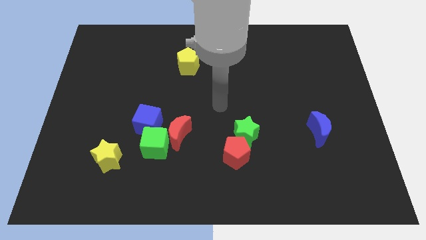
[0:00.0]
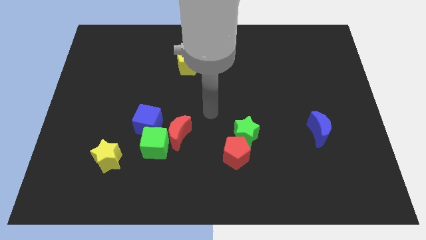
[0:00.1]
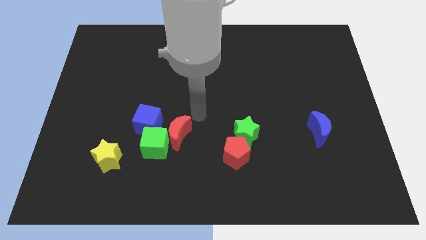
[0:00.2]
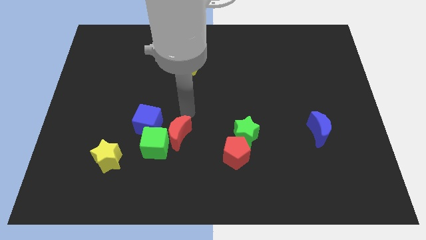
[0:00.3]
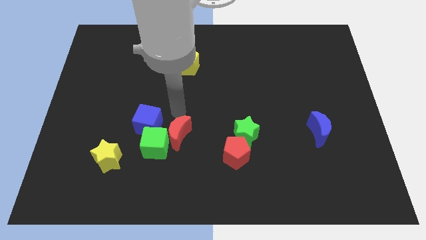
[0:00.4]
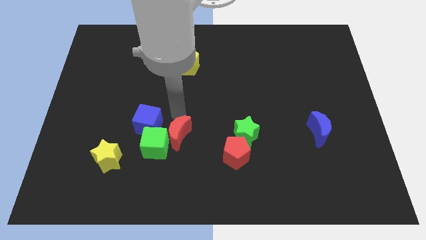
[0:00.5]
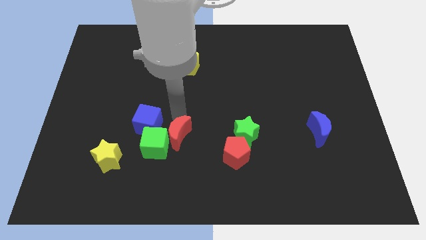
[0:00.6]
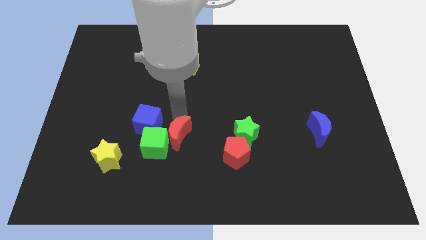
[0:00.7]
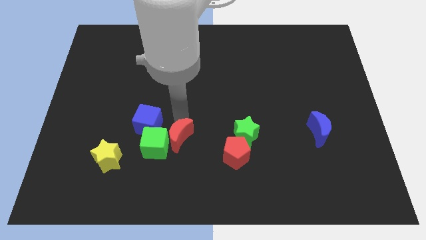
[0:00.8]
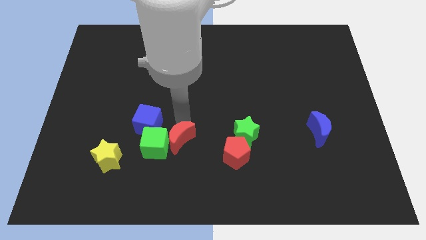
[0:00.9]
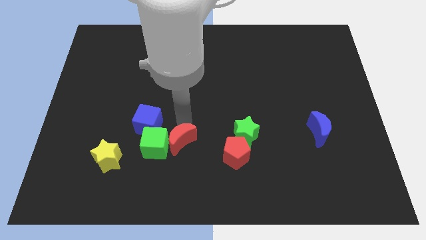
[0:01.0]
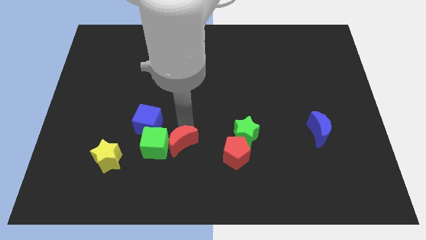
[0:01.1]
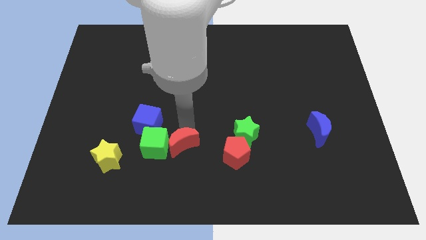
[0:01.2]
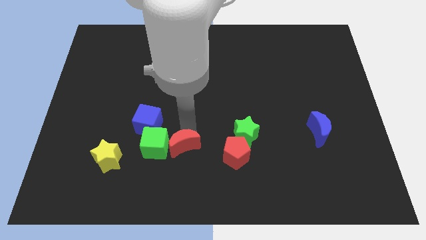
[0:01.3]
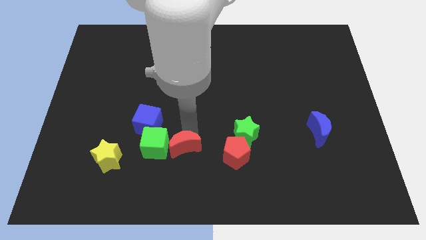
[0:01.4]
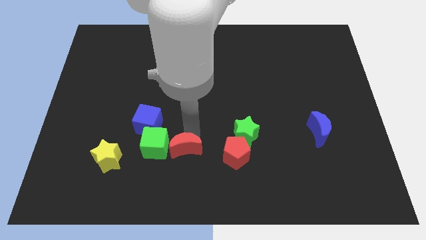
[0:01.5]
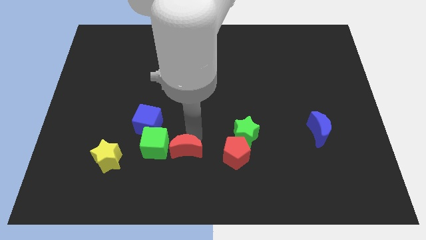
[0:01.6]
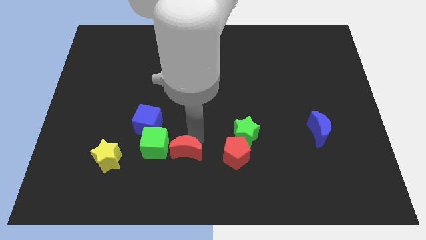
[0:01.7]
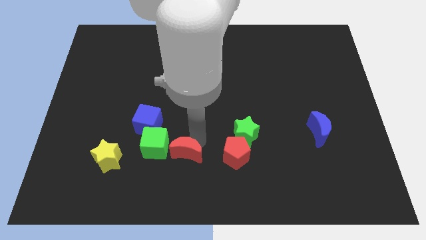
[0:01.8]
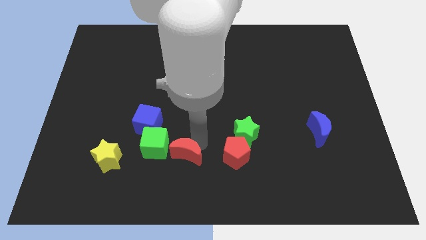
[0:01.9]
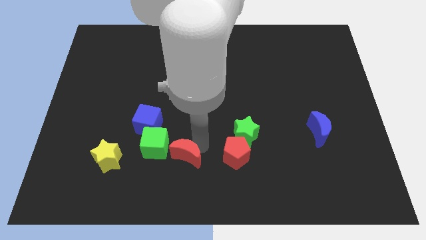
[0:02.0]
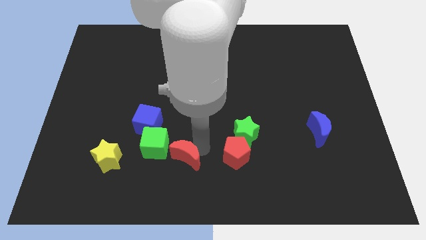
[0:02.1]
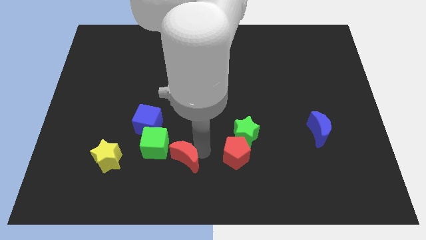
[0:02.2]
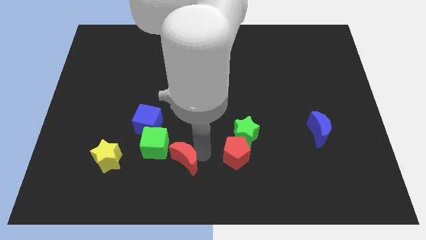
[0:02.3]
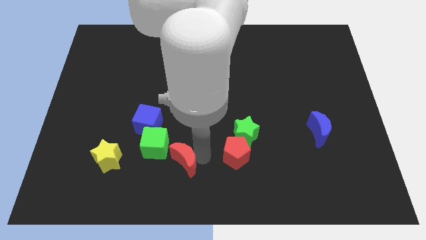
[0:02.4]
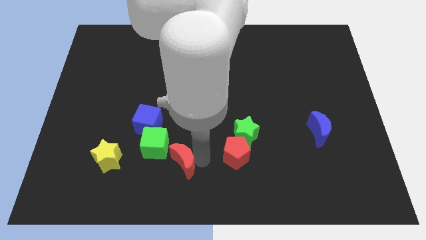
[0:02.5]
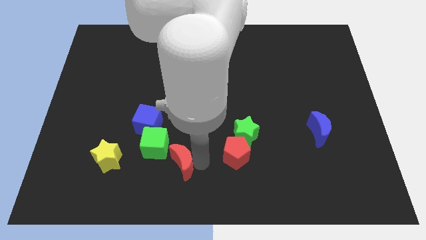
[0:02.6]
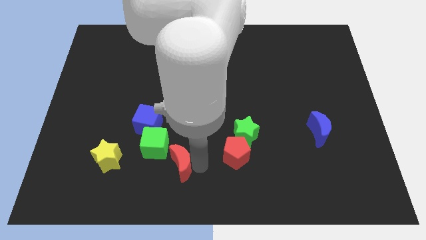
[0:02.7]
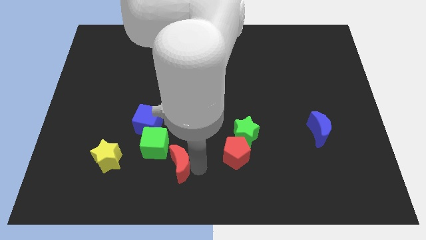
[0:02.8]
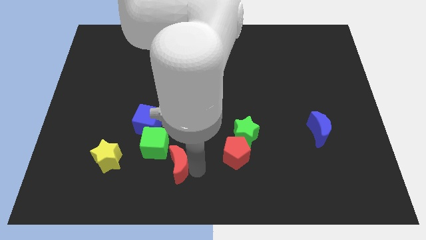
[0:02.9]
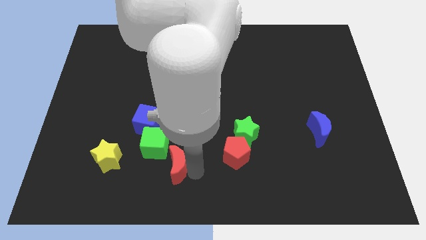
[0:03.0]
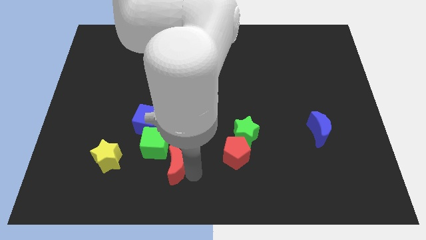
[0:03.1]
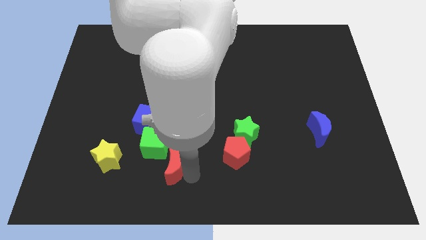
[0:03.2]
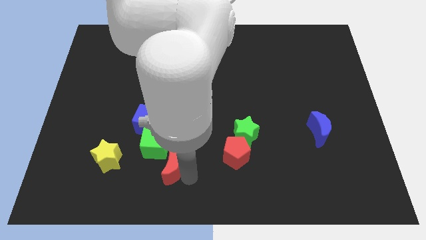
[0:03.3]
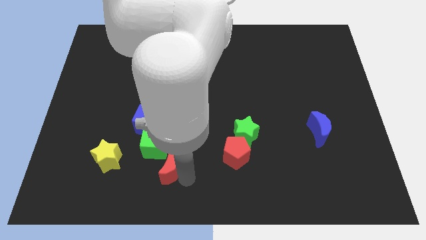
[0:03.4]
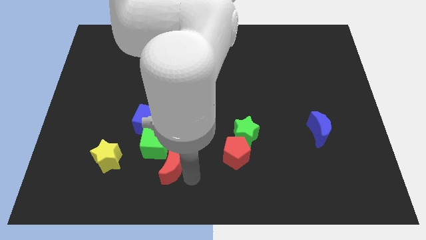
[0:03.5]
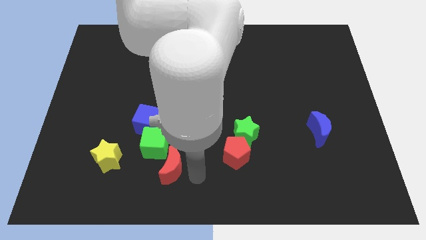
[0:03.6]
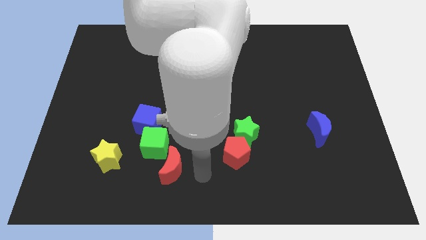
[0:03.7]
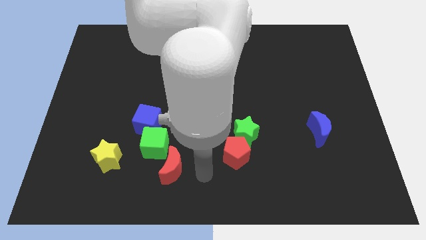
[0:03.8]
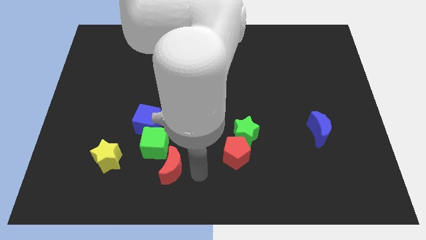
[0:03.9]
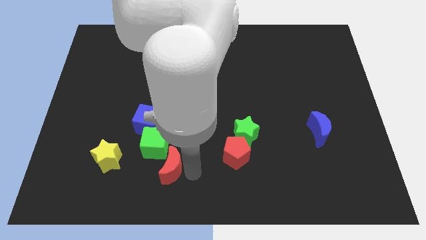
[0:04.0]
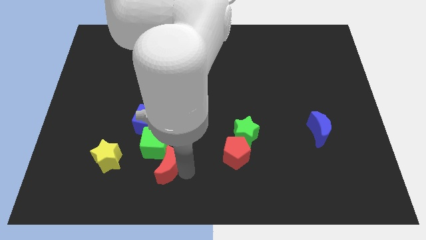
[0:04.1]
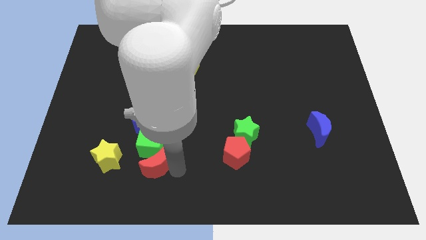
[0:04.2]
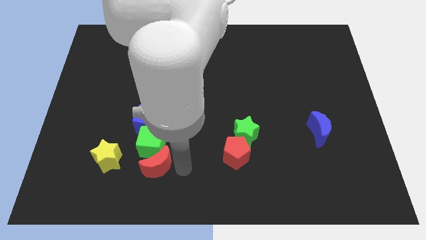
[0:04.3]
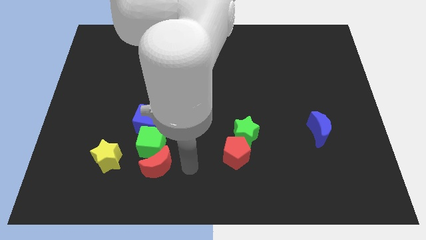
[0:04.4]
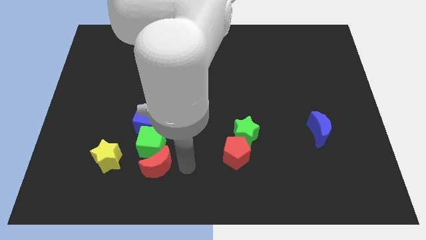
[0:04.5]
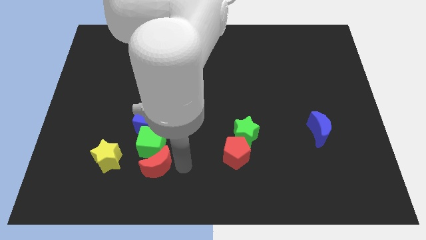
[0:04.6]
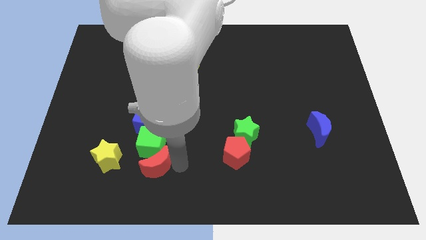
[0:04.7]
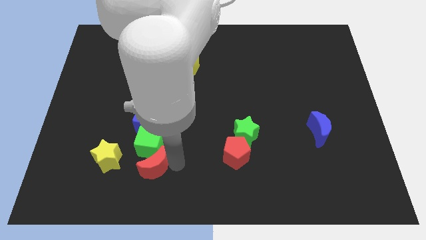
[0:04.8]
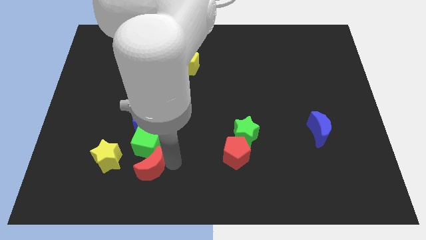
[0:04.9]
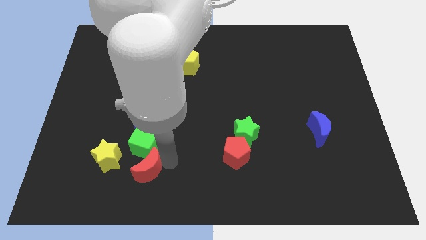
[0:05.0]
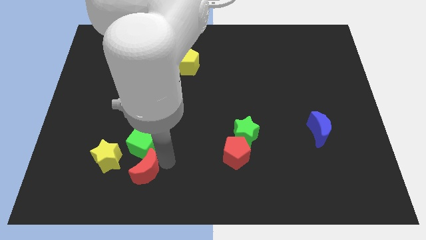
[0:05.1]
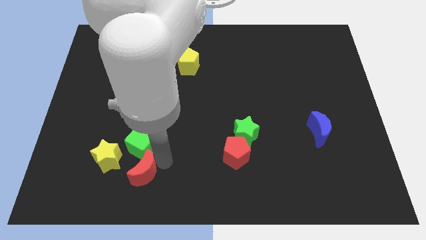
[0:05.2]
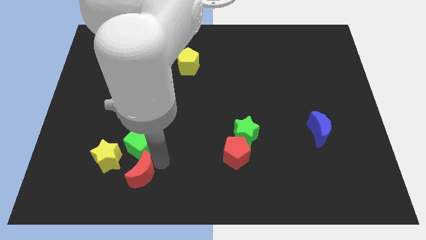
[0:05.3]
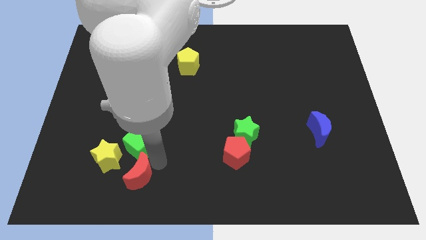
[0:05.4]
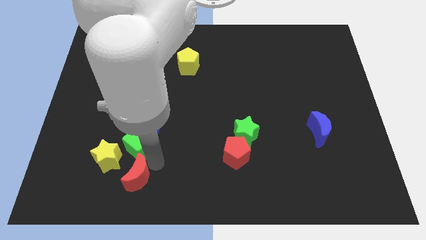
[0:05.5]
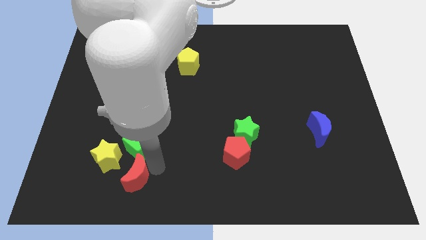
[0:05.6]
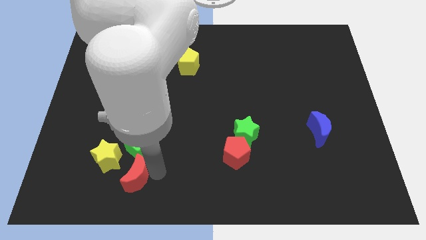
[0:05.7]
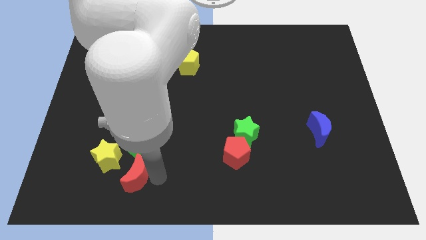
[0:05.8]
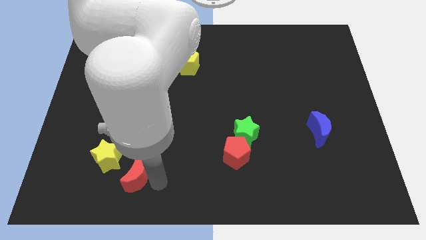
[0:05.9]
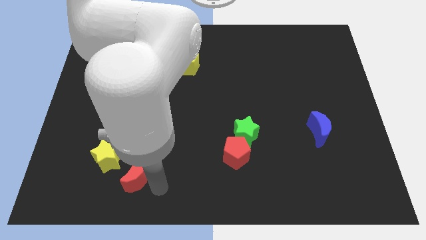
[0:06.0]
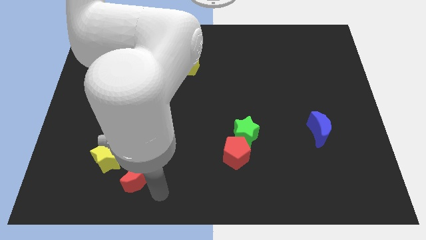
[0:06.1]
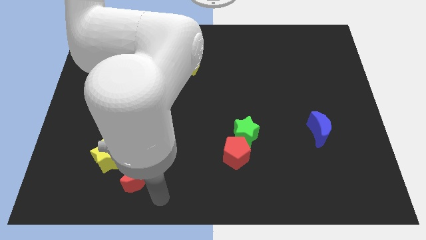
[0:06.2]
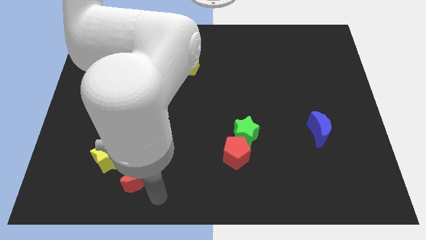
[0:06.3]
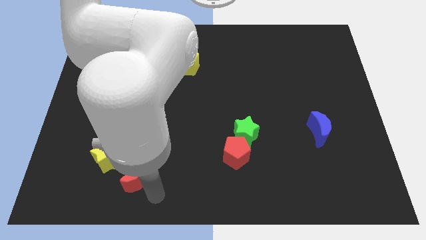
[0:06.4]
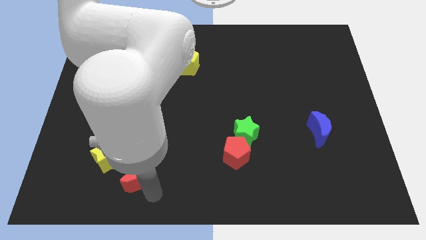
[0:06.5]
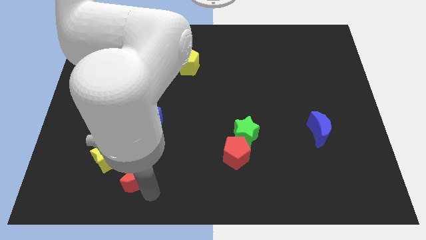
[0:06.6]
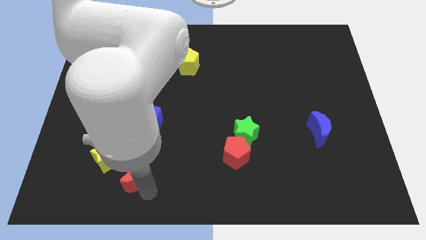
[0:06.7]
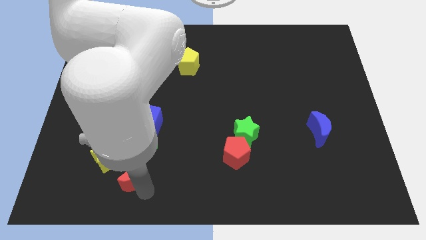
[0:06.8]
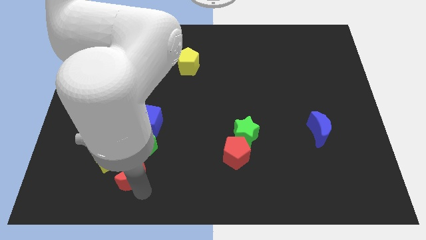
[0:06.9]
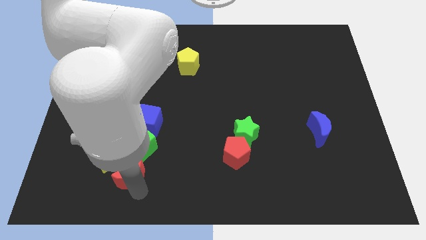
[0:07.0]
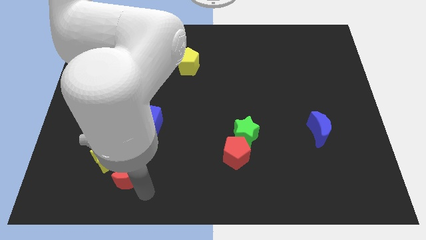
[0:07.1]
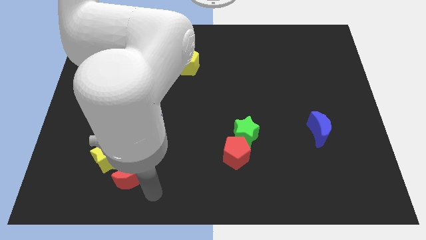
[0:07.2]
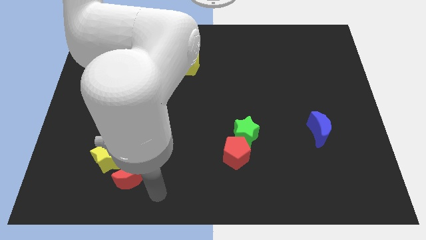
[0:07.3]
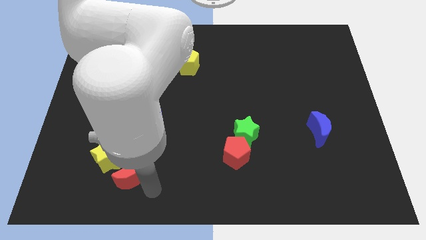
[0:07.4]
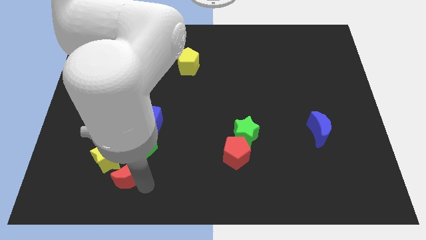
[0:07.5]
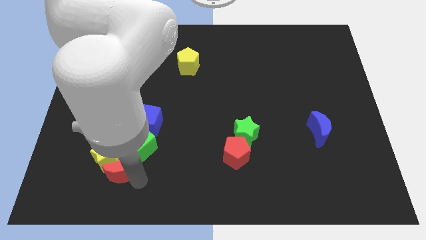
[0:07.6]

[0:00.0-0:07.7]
push the red moon close to the yellow star
